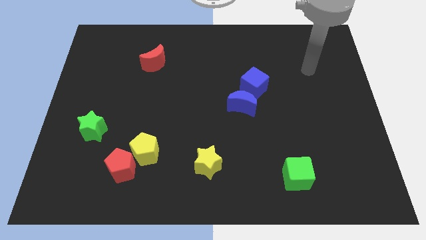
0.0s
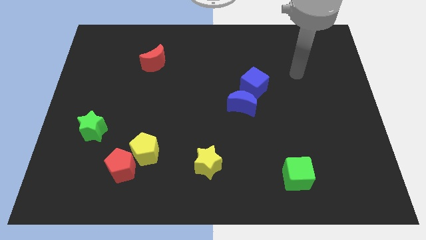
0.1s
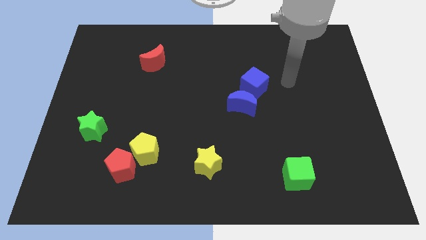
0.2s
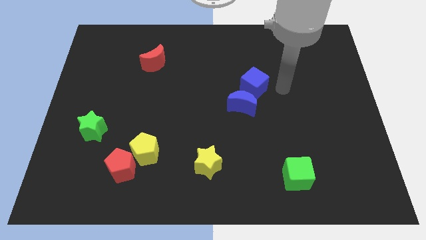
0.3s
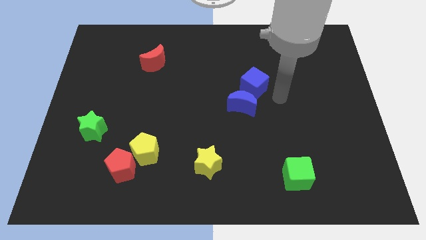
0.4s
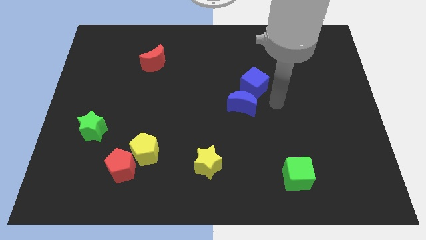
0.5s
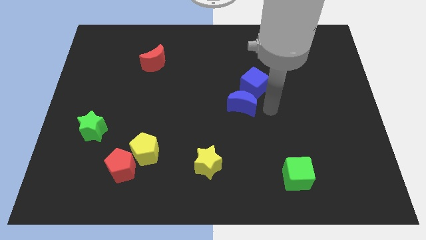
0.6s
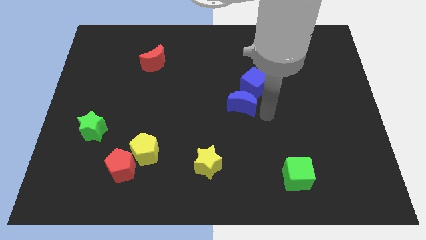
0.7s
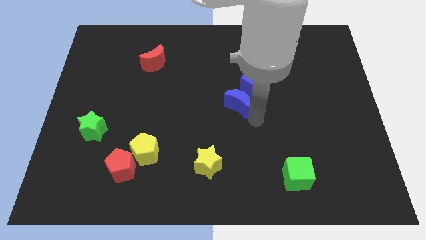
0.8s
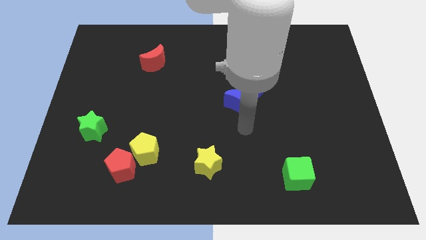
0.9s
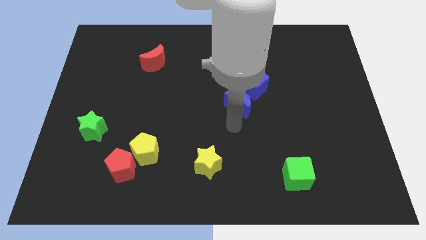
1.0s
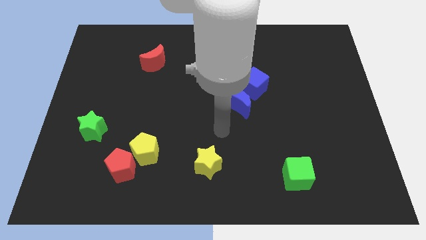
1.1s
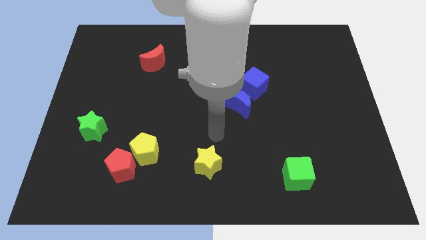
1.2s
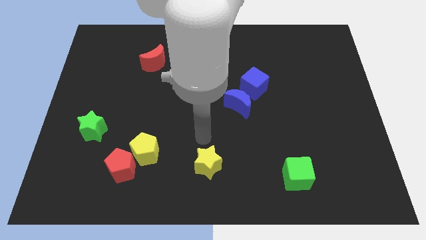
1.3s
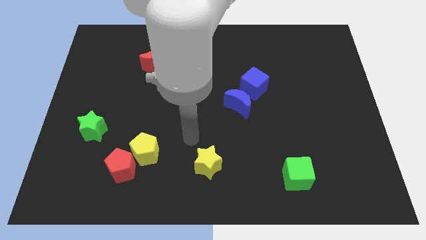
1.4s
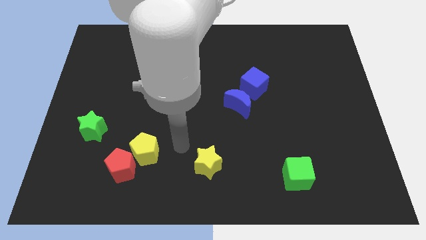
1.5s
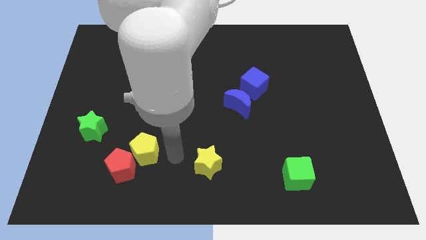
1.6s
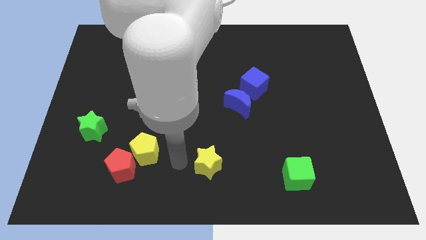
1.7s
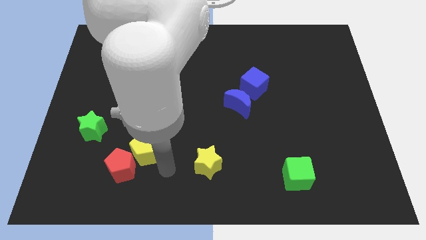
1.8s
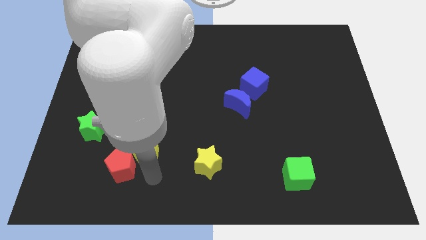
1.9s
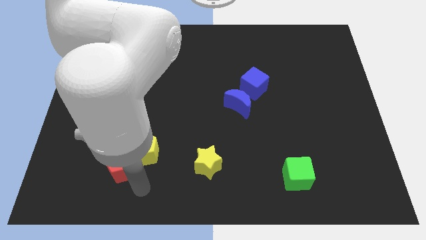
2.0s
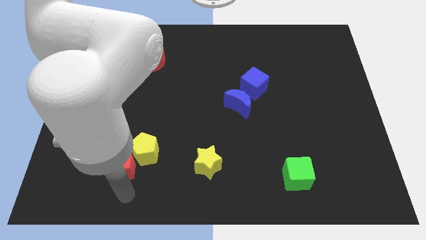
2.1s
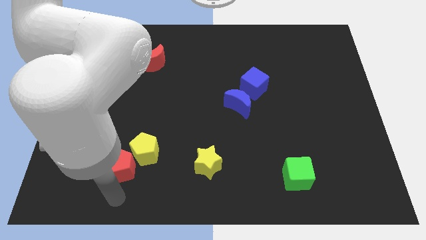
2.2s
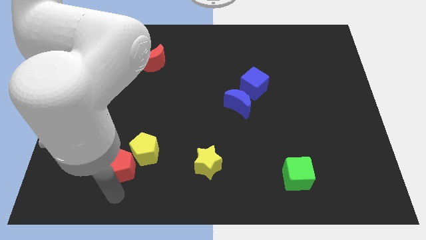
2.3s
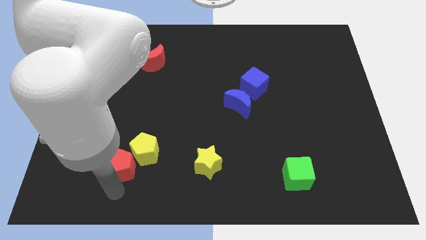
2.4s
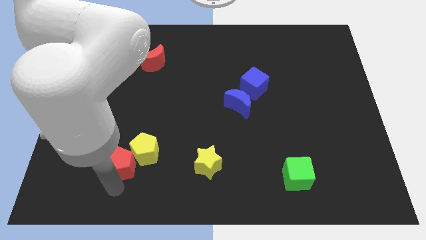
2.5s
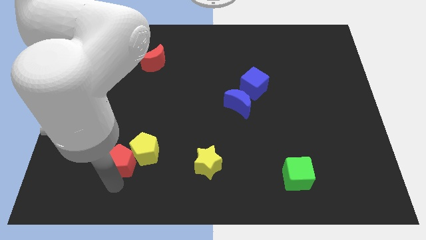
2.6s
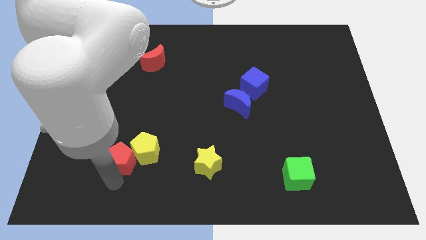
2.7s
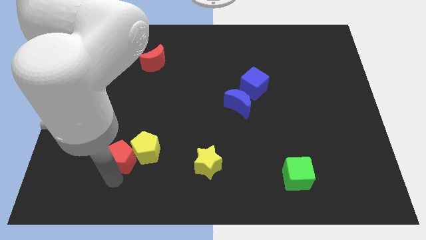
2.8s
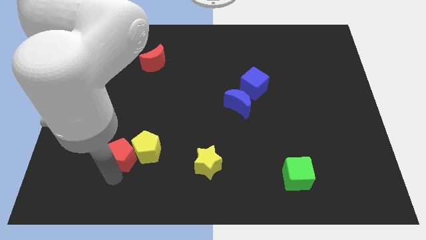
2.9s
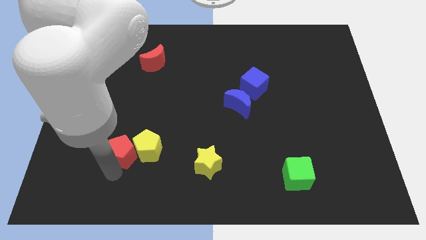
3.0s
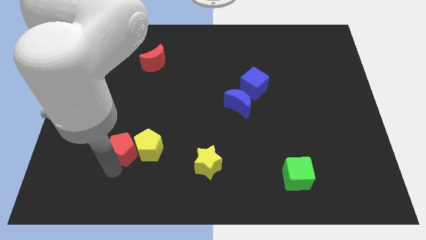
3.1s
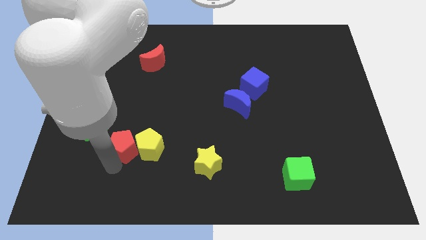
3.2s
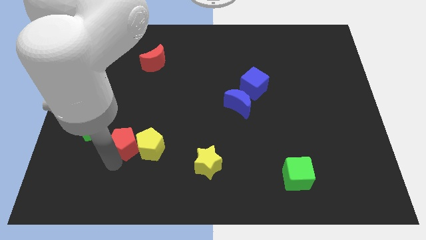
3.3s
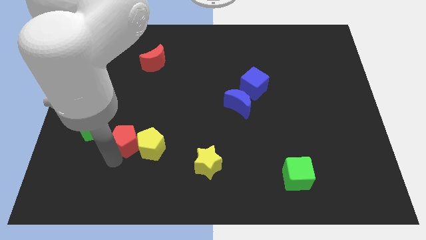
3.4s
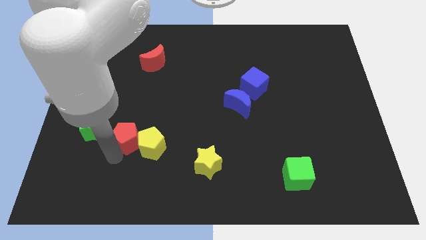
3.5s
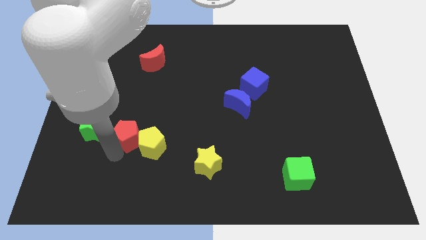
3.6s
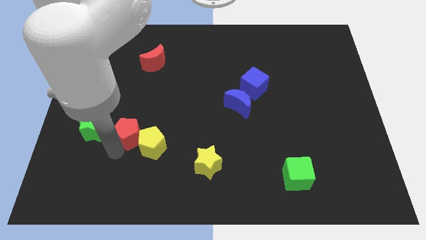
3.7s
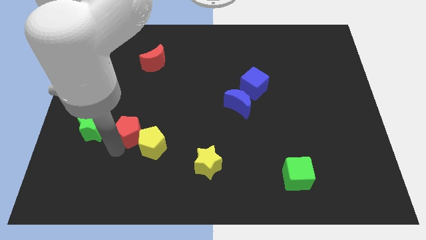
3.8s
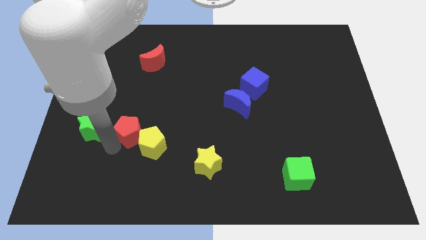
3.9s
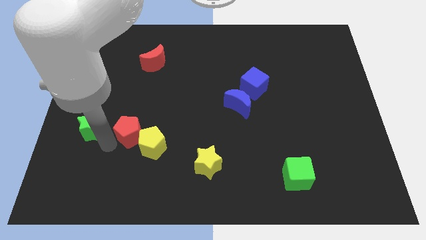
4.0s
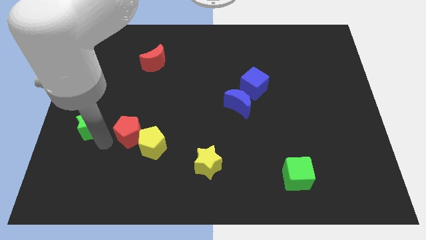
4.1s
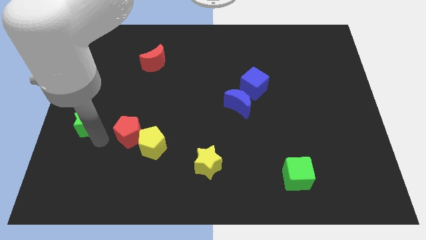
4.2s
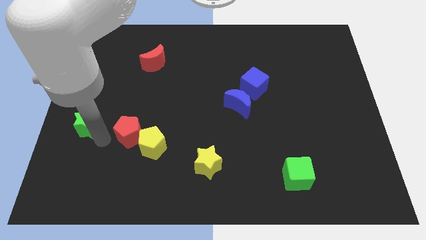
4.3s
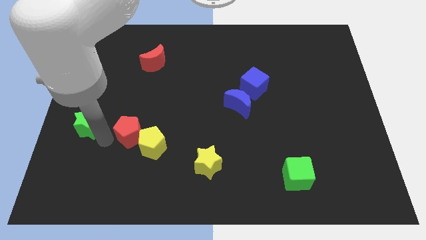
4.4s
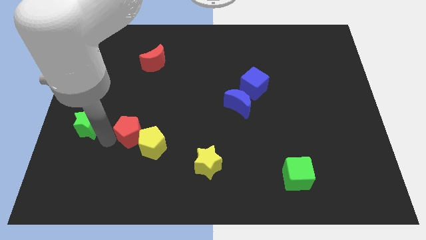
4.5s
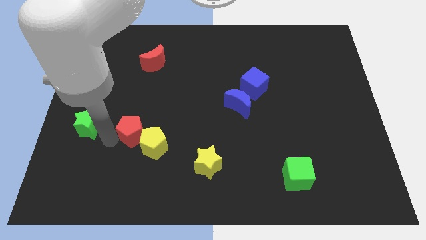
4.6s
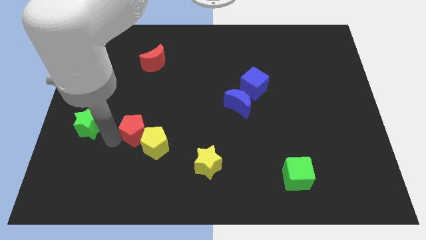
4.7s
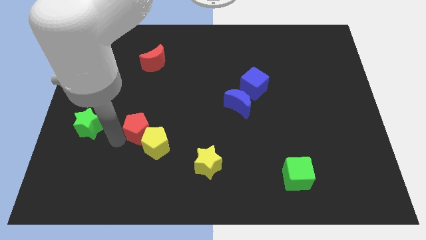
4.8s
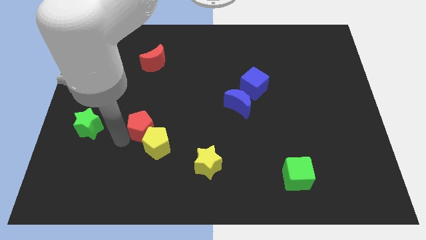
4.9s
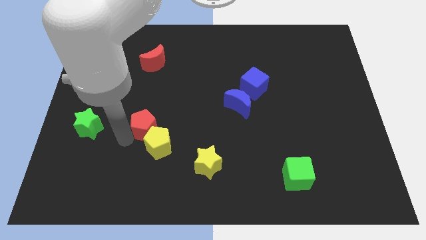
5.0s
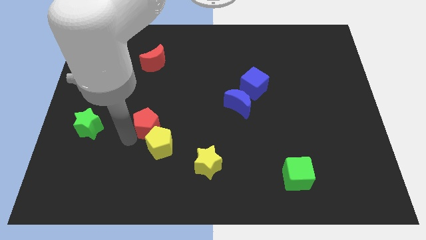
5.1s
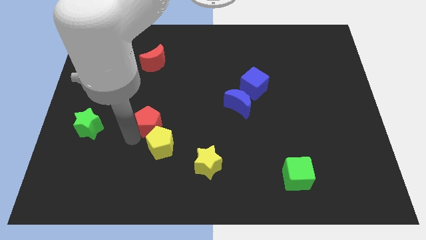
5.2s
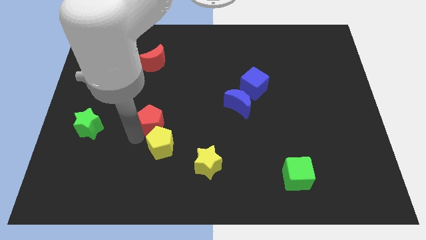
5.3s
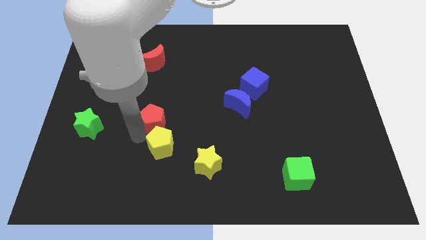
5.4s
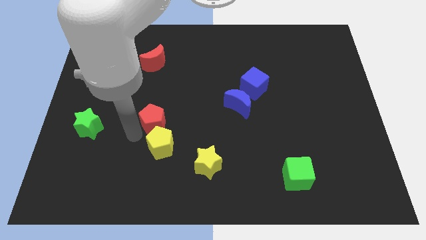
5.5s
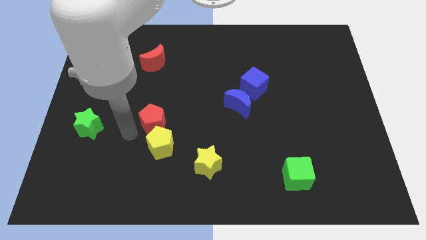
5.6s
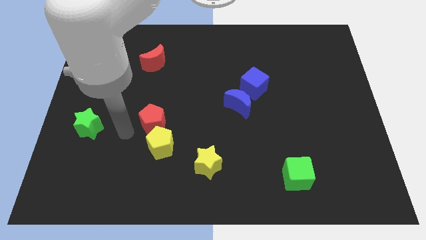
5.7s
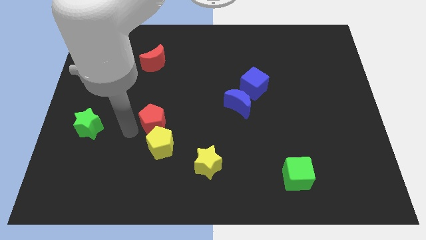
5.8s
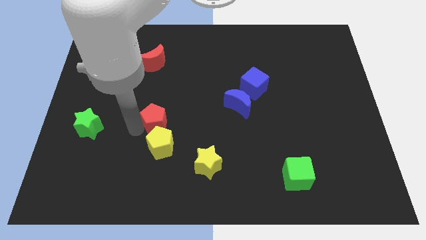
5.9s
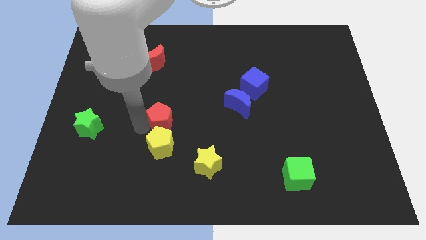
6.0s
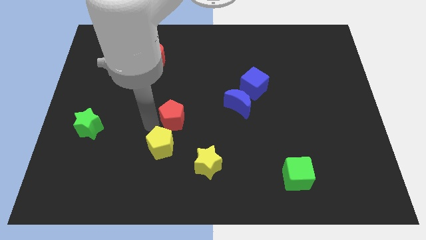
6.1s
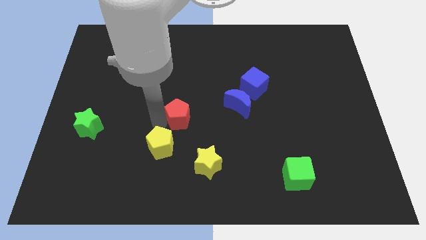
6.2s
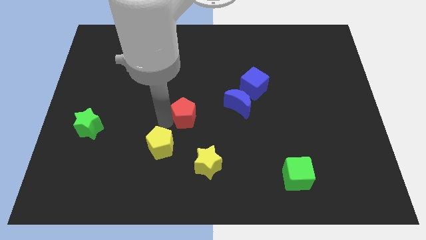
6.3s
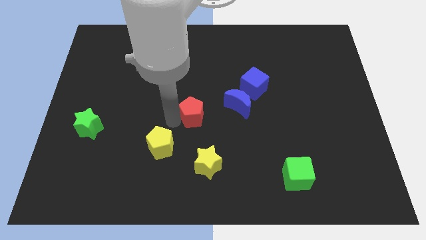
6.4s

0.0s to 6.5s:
push the red pentagon up and then right

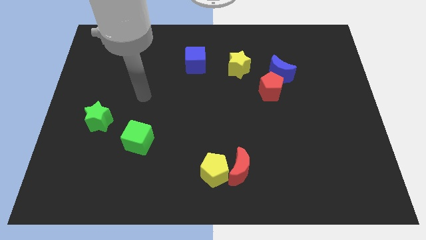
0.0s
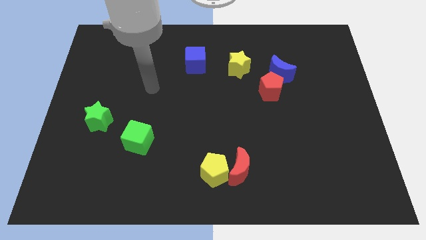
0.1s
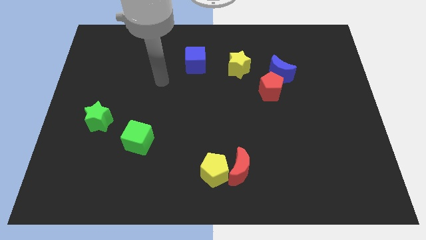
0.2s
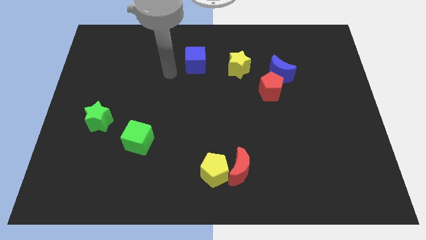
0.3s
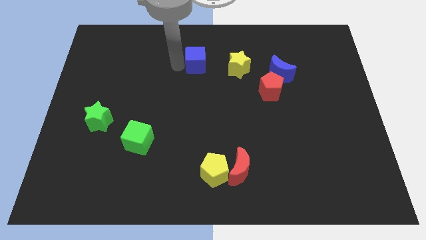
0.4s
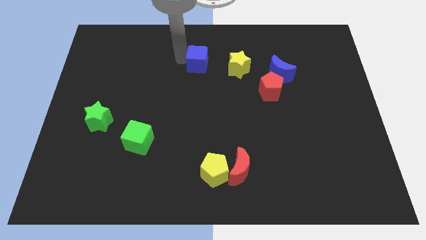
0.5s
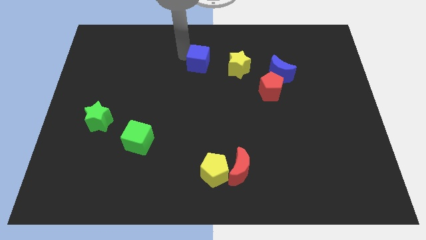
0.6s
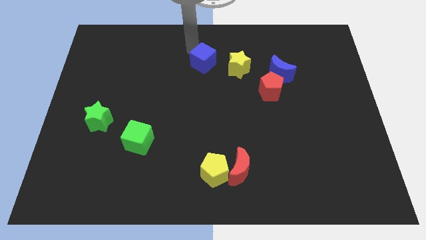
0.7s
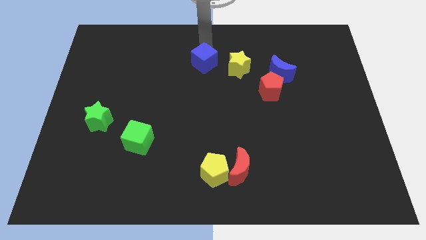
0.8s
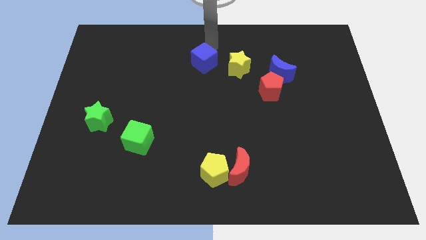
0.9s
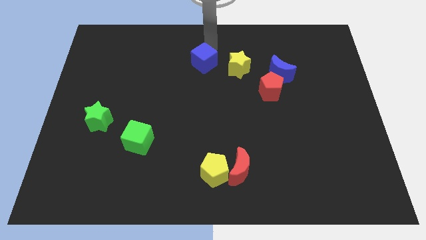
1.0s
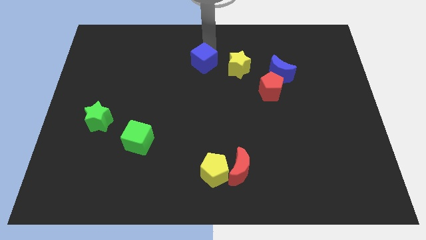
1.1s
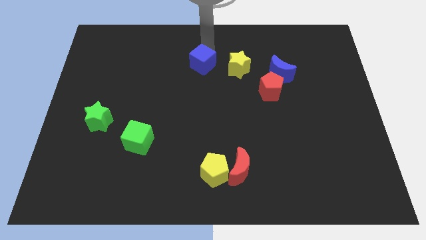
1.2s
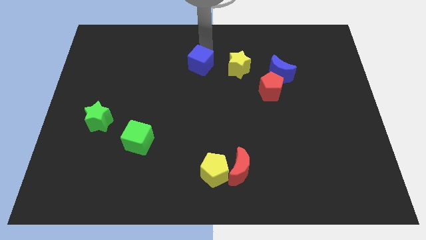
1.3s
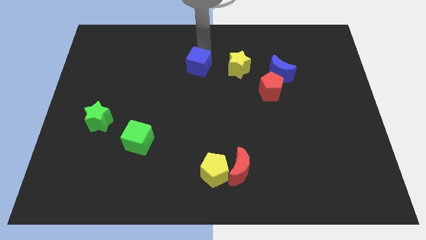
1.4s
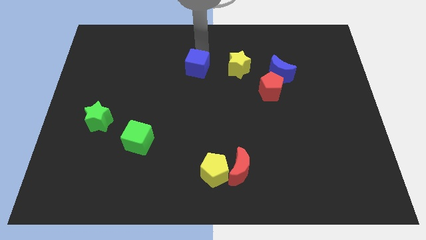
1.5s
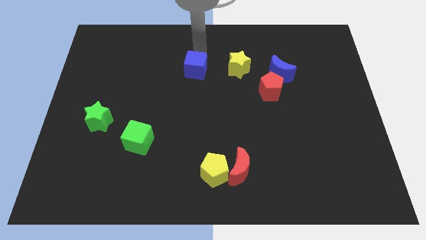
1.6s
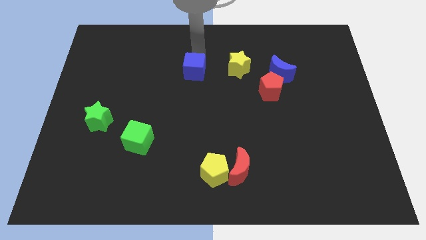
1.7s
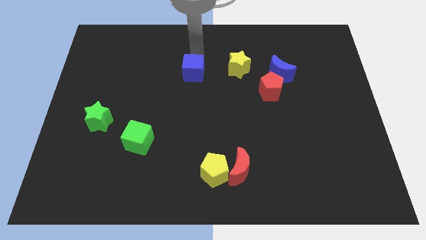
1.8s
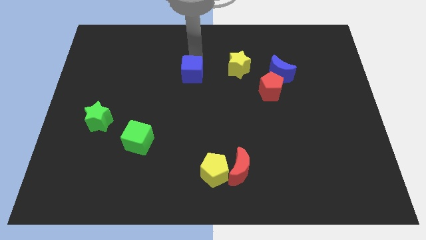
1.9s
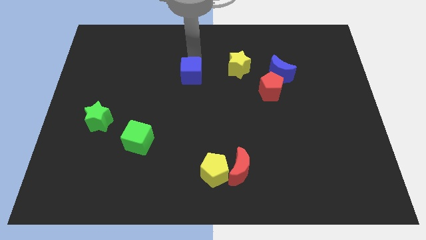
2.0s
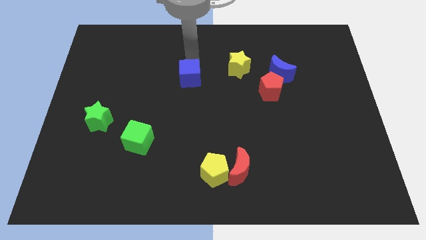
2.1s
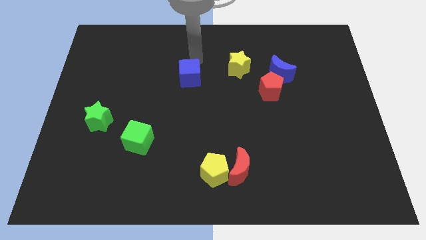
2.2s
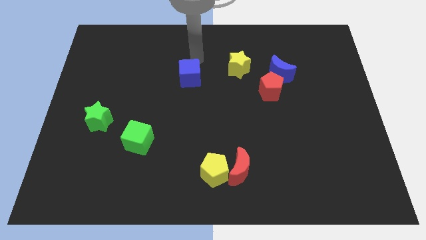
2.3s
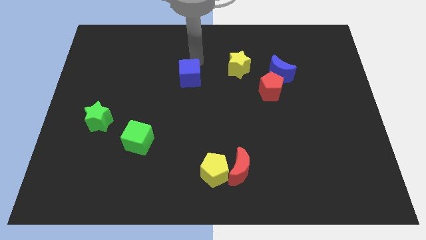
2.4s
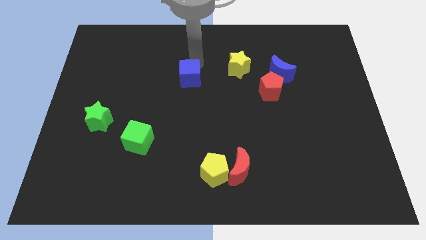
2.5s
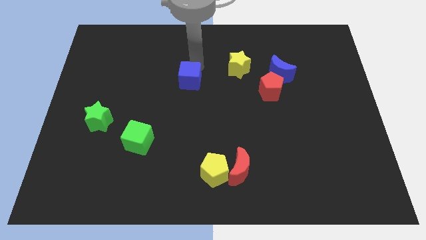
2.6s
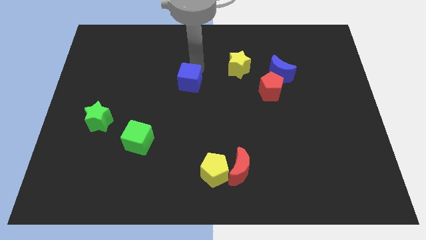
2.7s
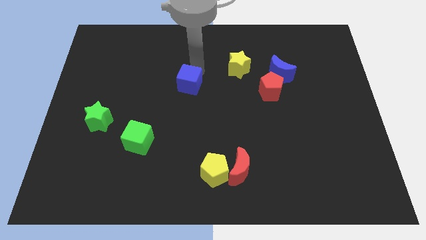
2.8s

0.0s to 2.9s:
slide the blue cube downwards a little bit
